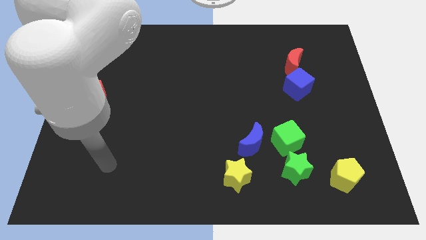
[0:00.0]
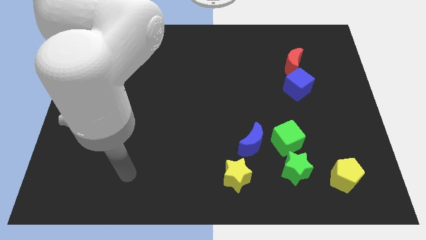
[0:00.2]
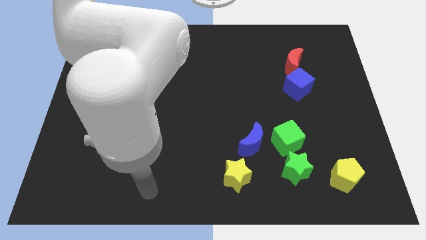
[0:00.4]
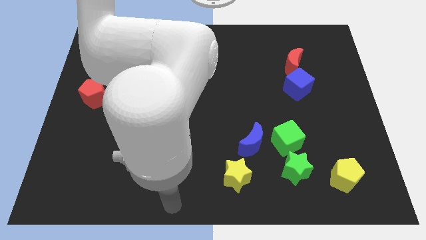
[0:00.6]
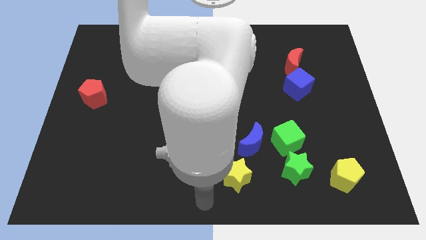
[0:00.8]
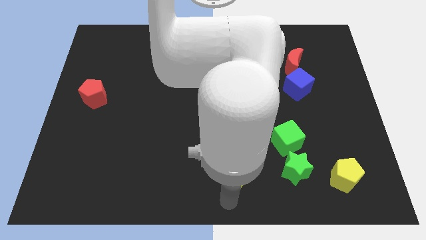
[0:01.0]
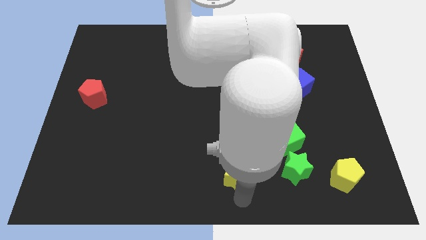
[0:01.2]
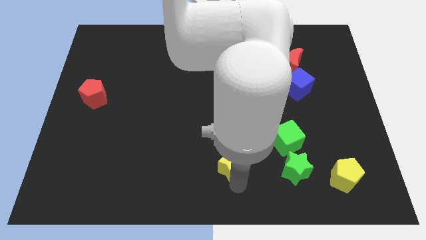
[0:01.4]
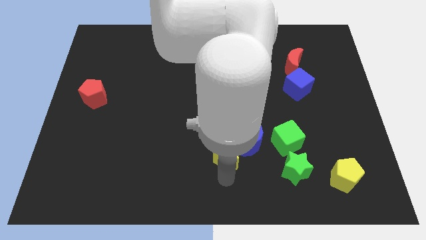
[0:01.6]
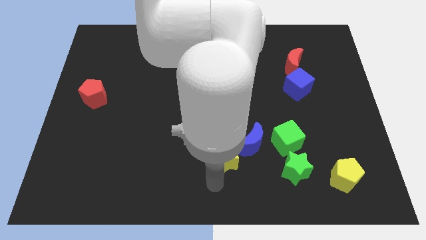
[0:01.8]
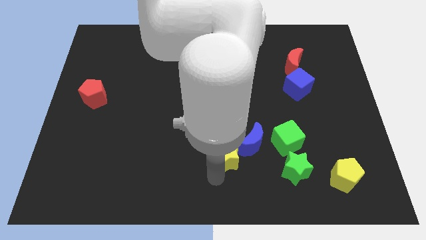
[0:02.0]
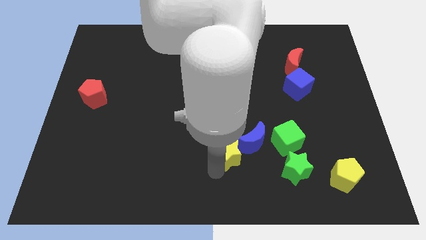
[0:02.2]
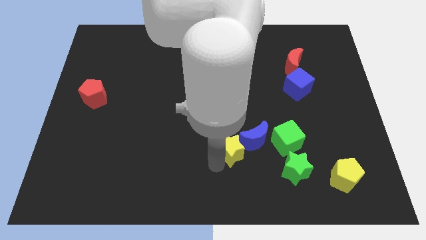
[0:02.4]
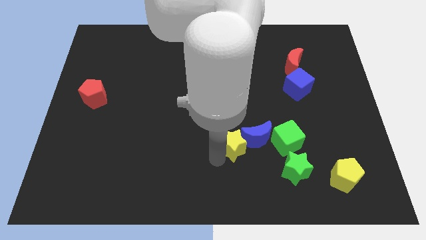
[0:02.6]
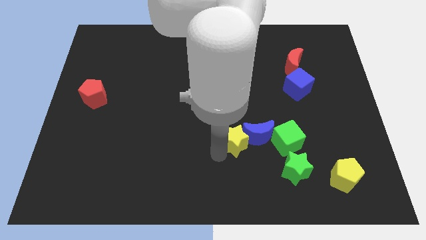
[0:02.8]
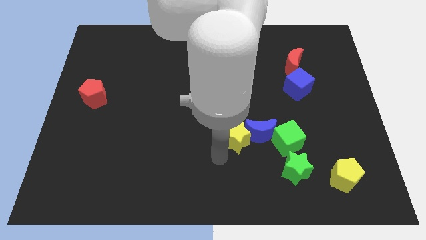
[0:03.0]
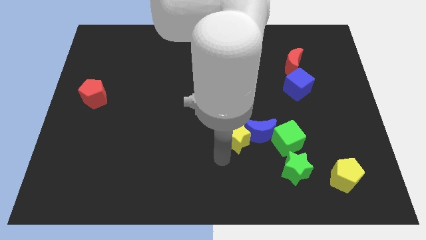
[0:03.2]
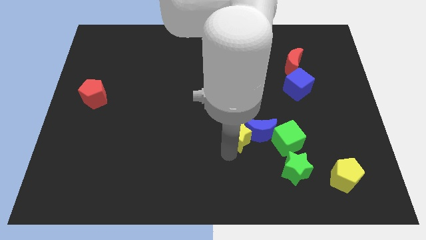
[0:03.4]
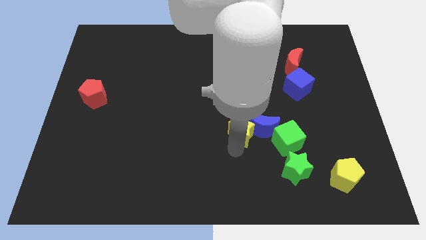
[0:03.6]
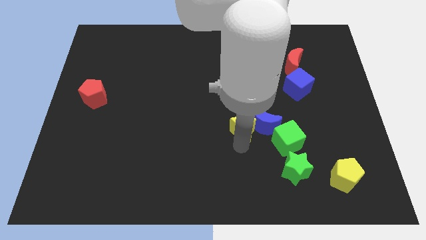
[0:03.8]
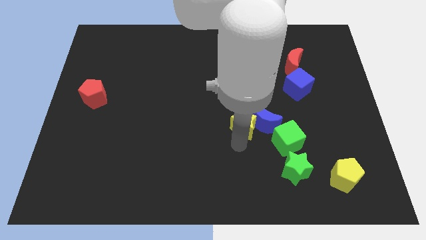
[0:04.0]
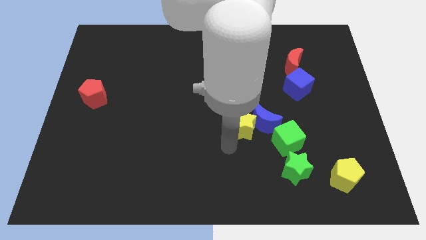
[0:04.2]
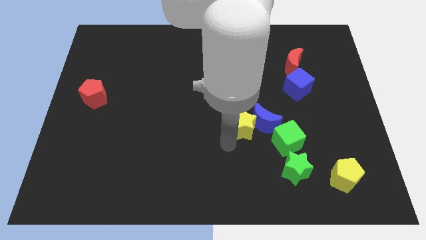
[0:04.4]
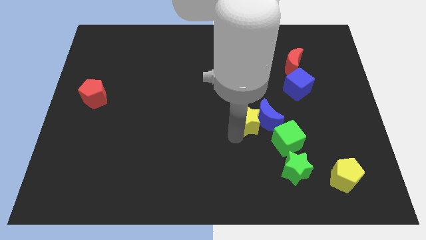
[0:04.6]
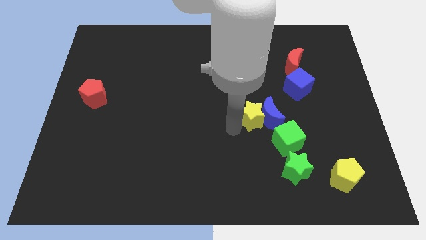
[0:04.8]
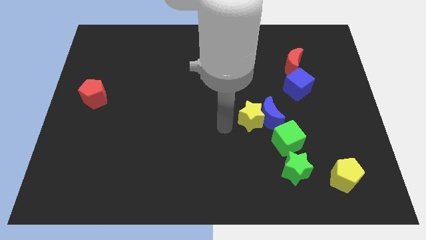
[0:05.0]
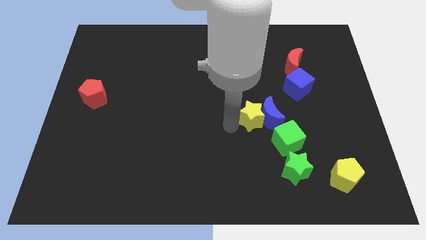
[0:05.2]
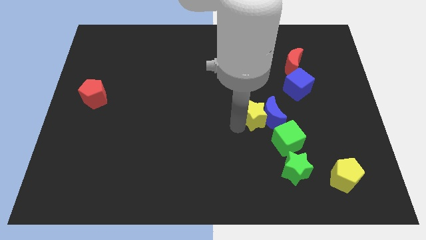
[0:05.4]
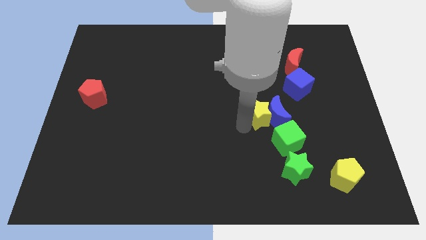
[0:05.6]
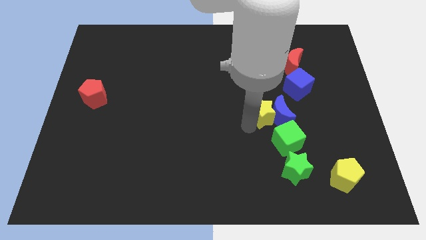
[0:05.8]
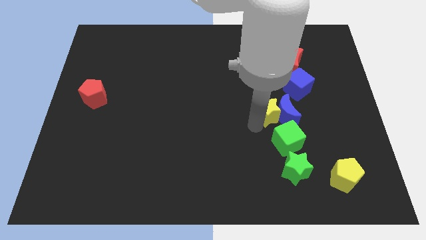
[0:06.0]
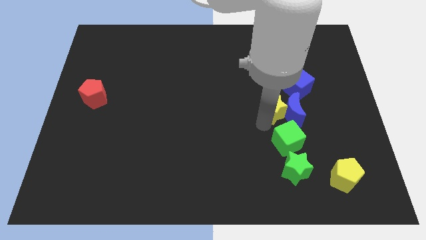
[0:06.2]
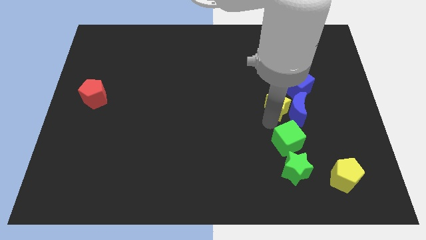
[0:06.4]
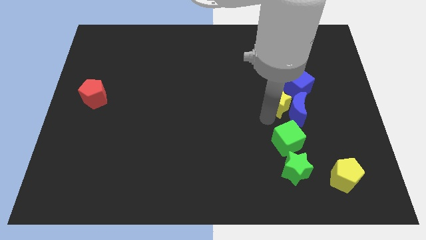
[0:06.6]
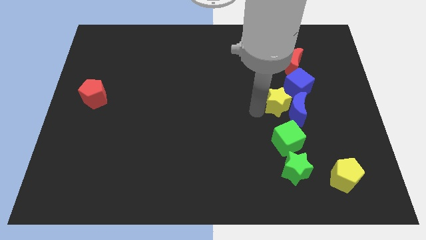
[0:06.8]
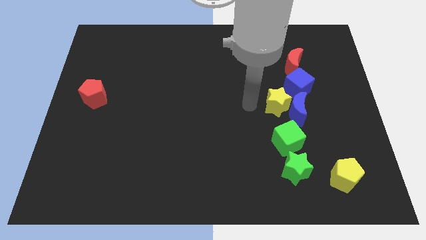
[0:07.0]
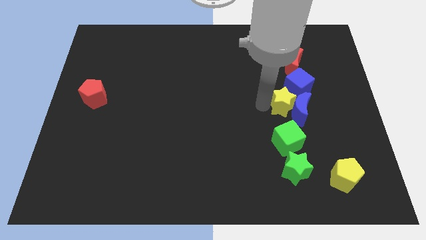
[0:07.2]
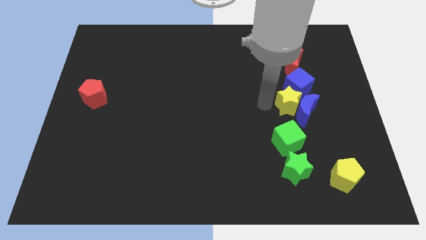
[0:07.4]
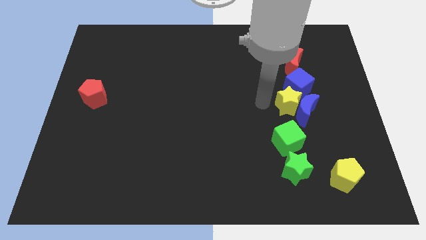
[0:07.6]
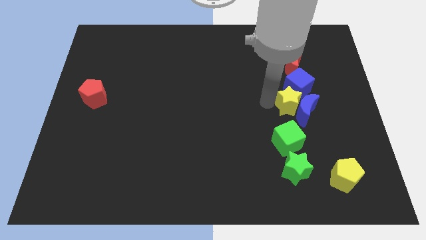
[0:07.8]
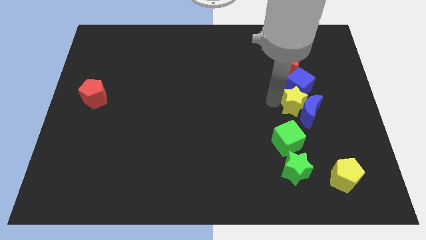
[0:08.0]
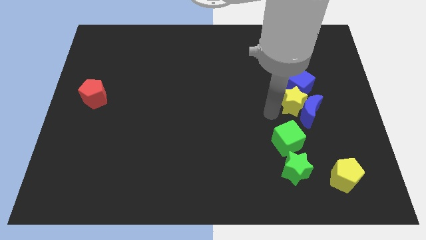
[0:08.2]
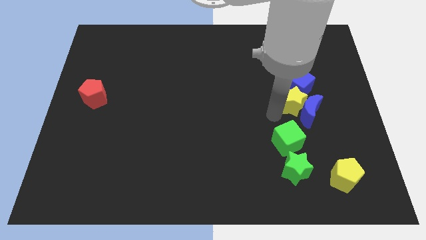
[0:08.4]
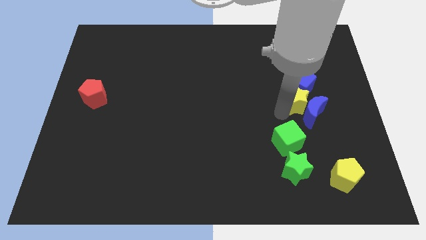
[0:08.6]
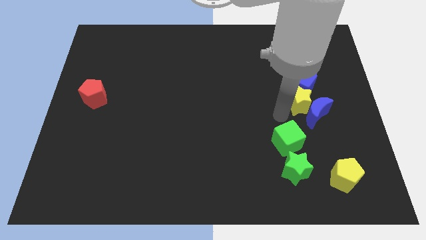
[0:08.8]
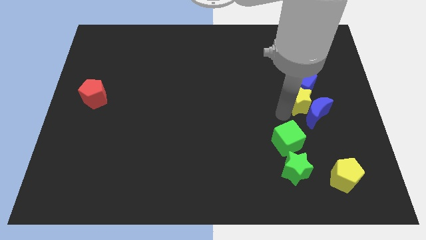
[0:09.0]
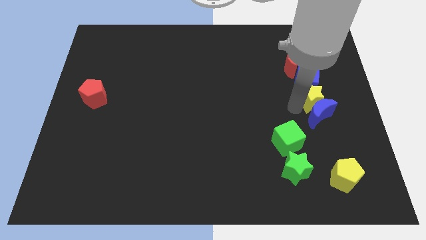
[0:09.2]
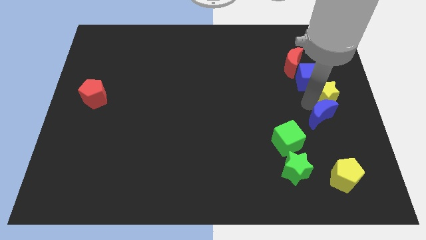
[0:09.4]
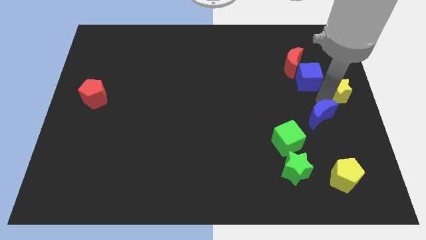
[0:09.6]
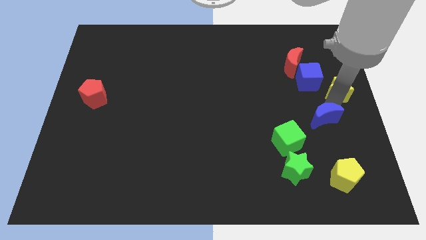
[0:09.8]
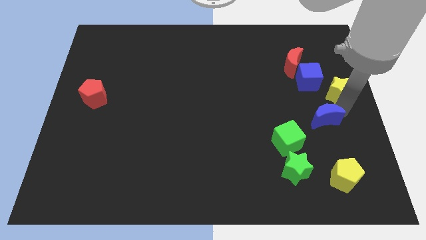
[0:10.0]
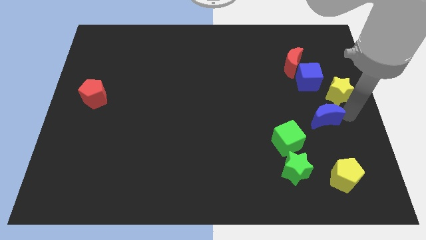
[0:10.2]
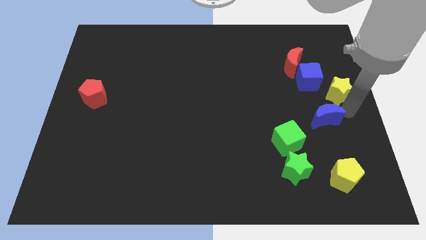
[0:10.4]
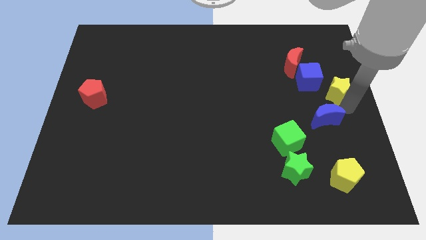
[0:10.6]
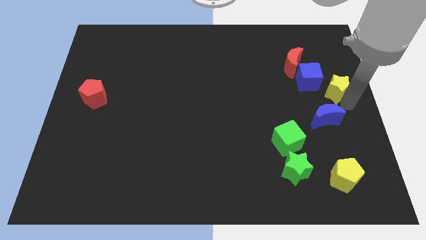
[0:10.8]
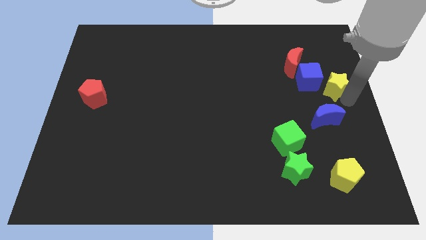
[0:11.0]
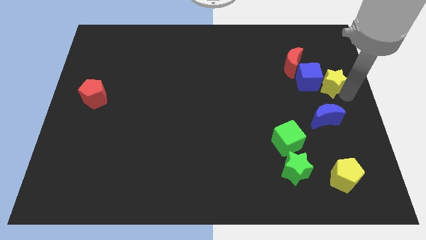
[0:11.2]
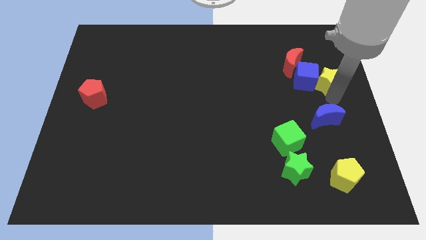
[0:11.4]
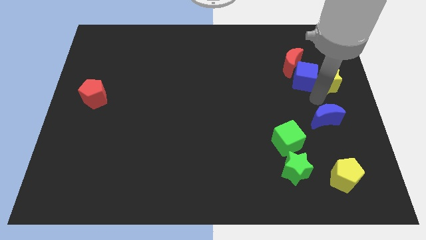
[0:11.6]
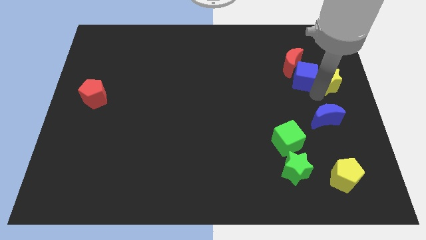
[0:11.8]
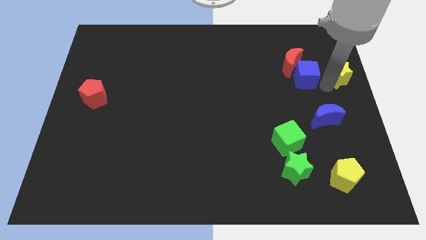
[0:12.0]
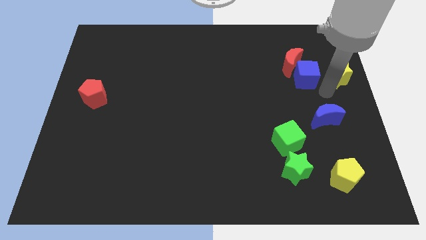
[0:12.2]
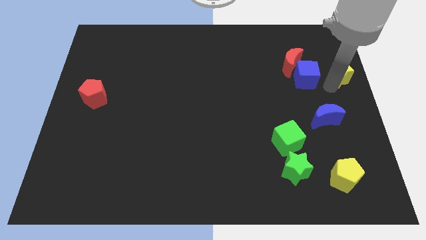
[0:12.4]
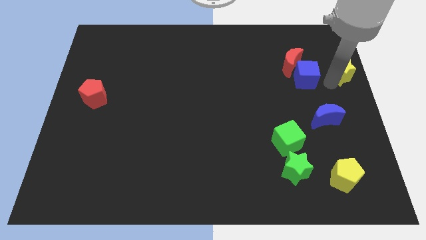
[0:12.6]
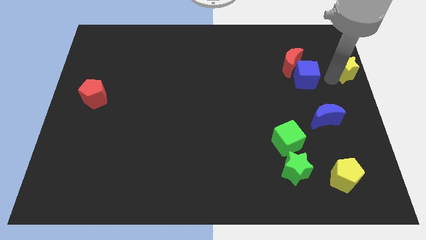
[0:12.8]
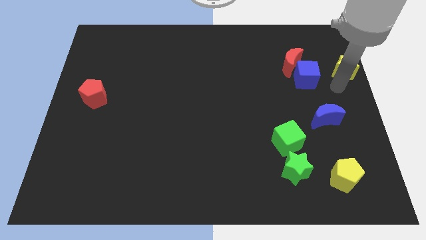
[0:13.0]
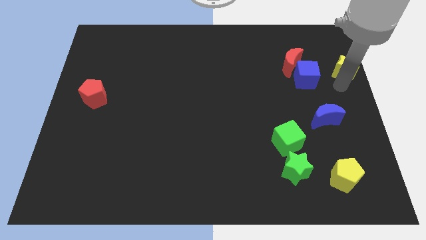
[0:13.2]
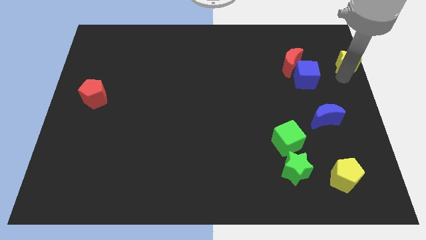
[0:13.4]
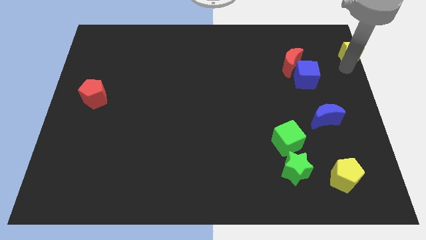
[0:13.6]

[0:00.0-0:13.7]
put the yellow star to the top right
